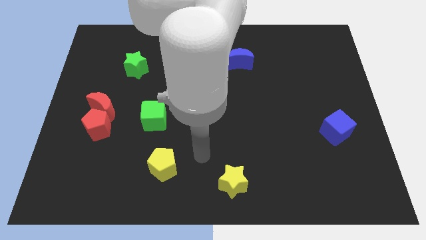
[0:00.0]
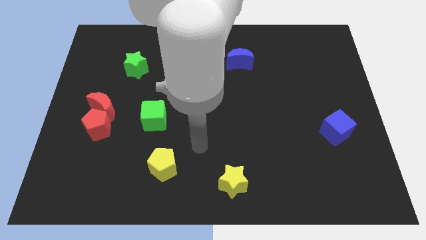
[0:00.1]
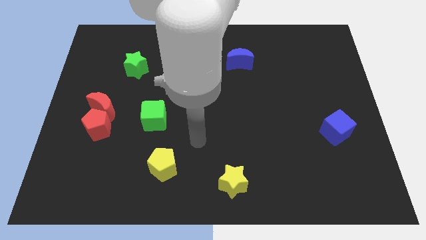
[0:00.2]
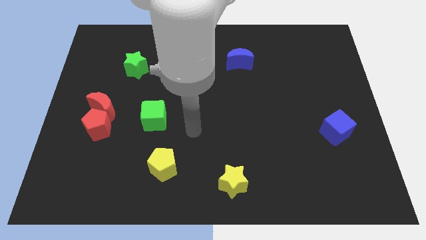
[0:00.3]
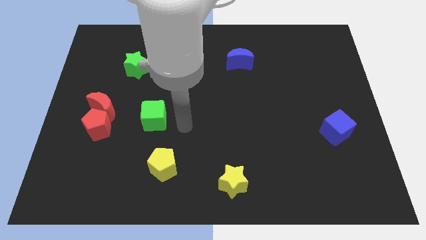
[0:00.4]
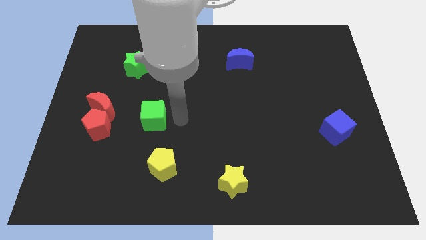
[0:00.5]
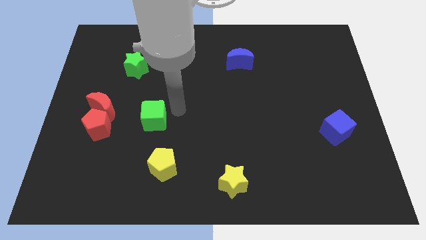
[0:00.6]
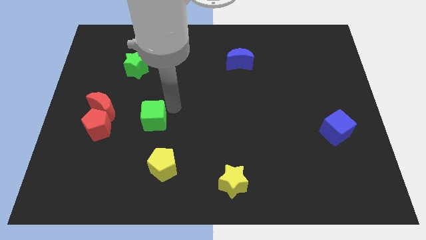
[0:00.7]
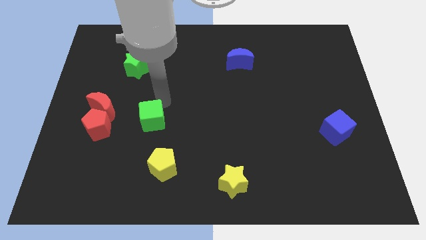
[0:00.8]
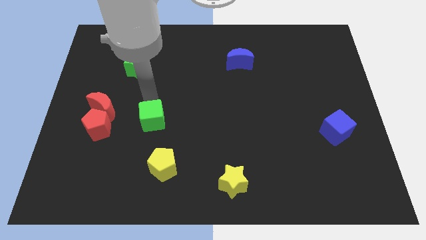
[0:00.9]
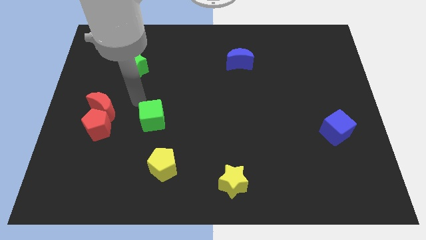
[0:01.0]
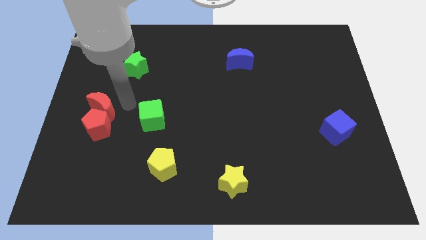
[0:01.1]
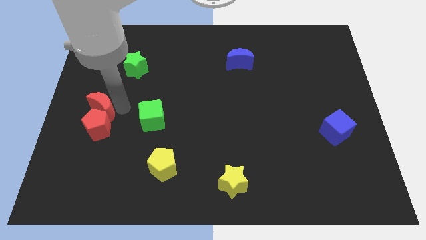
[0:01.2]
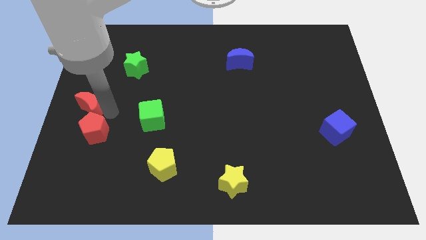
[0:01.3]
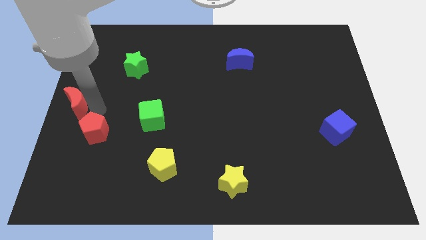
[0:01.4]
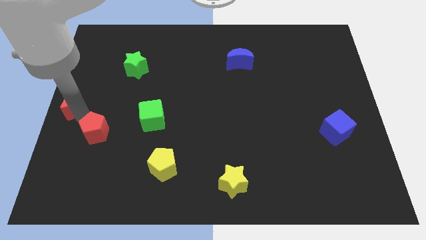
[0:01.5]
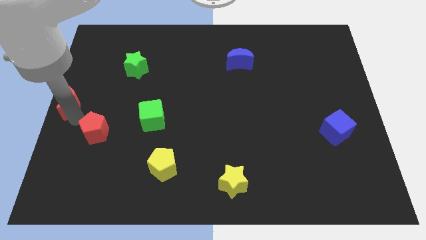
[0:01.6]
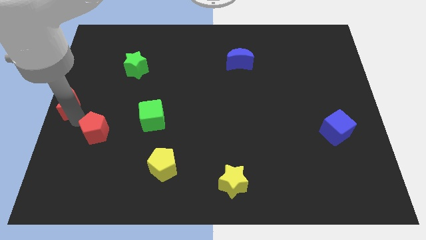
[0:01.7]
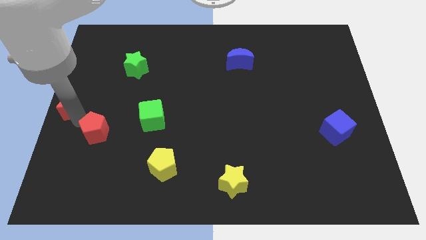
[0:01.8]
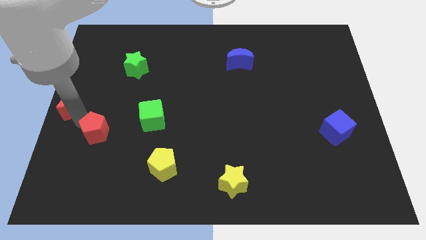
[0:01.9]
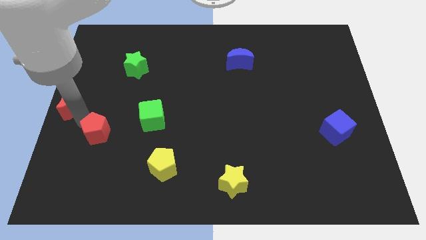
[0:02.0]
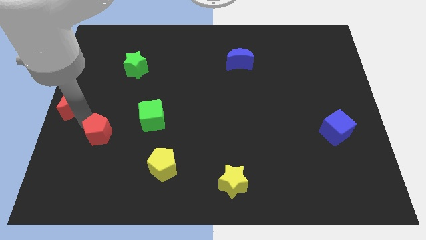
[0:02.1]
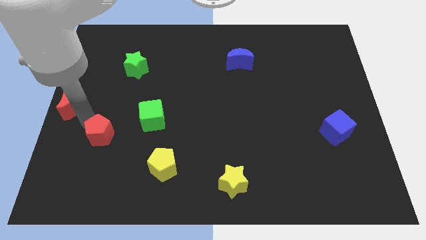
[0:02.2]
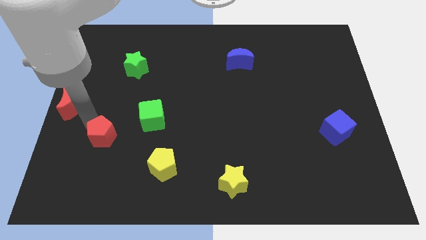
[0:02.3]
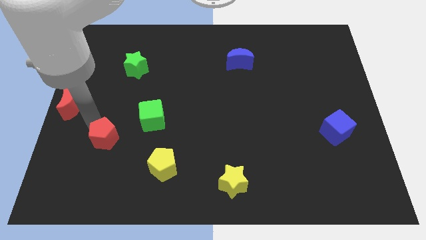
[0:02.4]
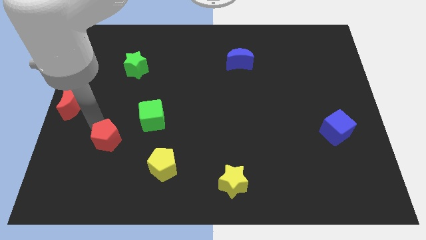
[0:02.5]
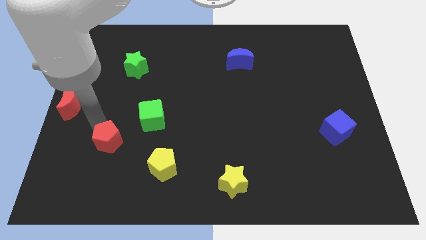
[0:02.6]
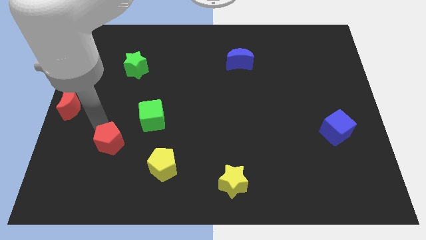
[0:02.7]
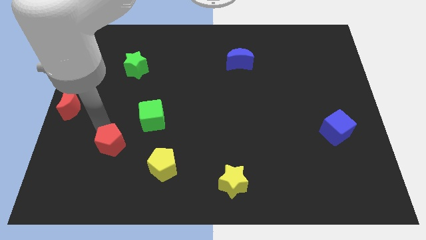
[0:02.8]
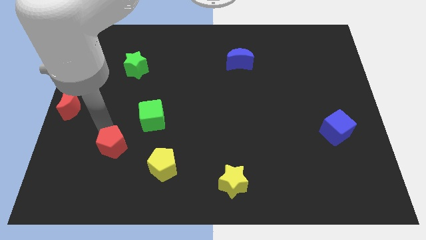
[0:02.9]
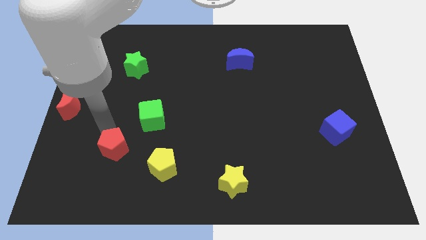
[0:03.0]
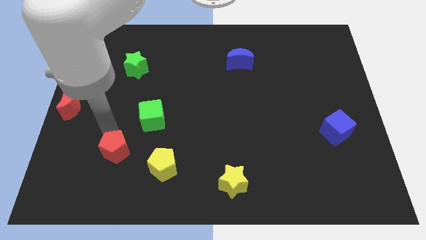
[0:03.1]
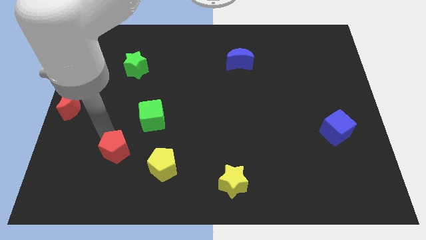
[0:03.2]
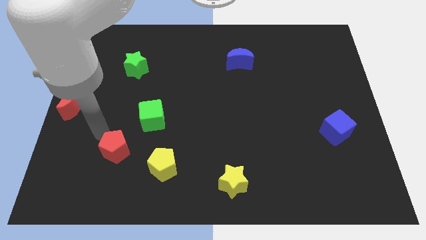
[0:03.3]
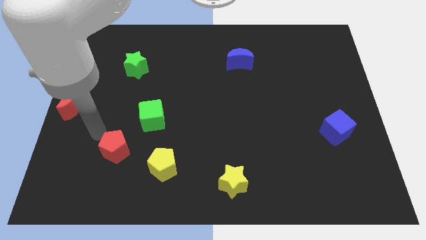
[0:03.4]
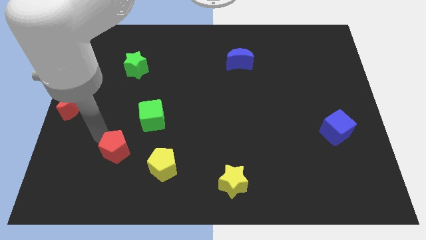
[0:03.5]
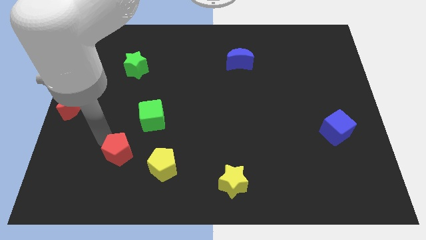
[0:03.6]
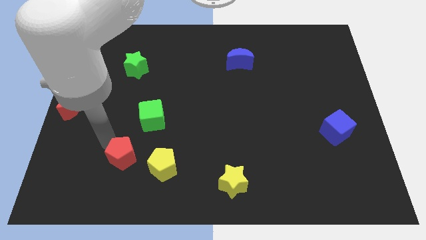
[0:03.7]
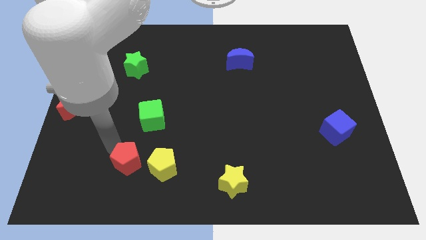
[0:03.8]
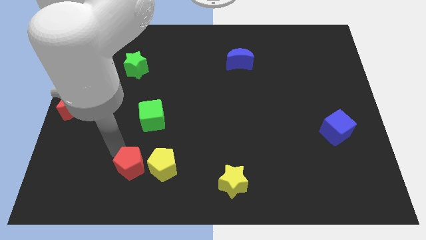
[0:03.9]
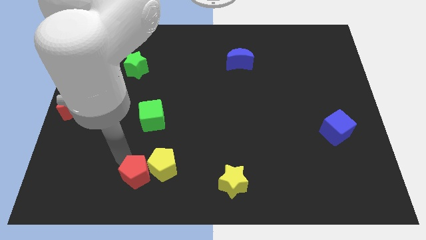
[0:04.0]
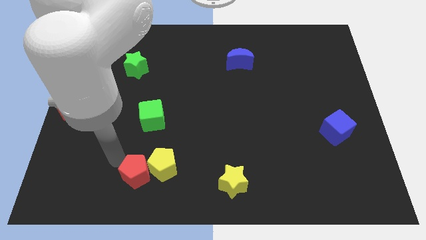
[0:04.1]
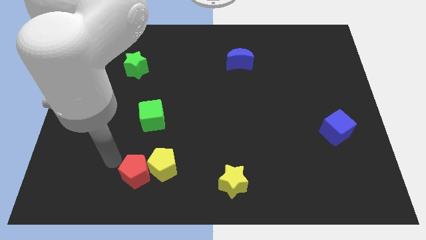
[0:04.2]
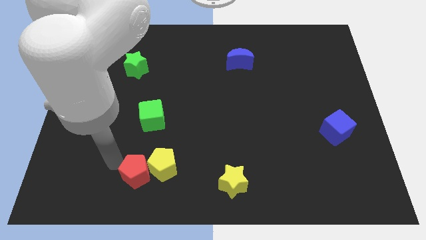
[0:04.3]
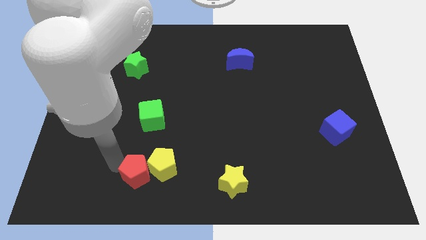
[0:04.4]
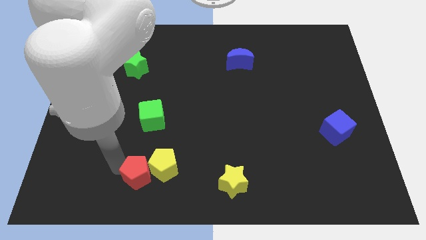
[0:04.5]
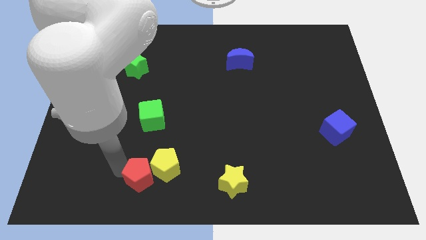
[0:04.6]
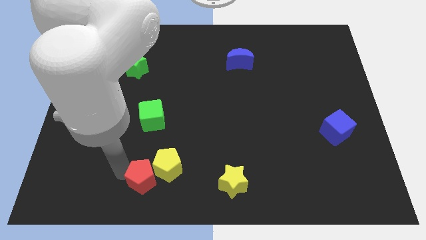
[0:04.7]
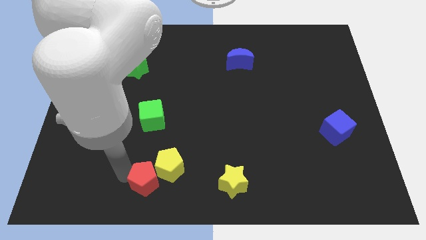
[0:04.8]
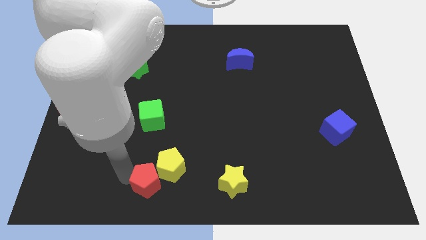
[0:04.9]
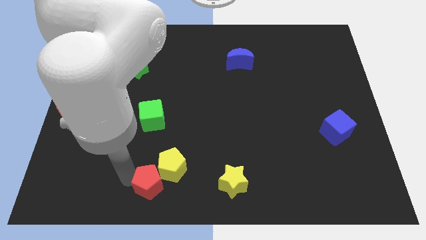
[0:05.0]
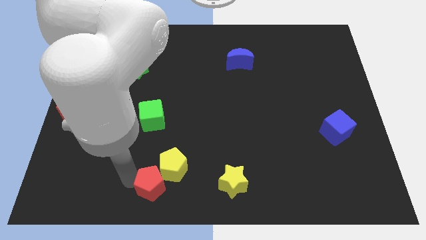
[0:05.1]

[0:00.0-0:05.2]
push the red pentagon left of the yellow star

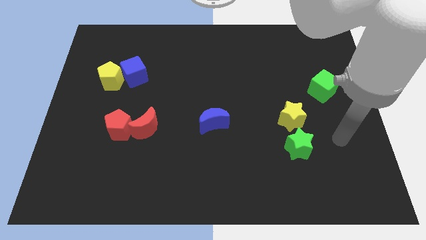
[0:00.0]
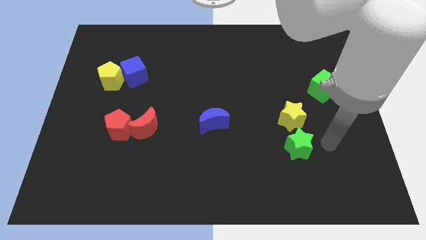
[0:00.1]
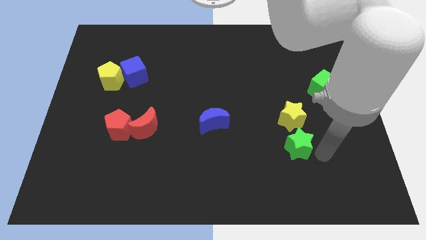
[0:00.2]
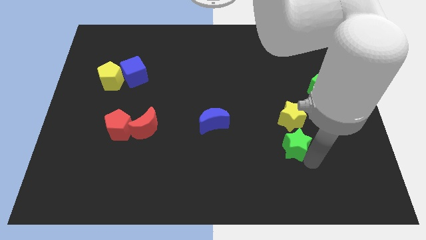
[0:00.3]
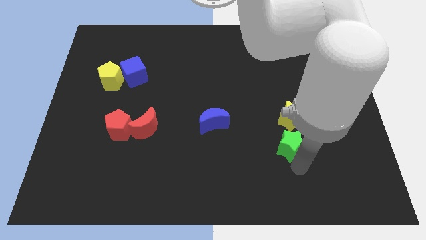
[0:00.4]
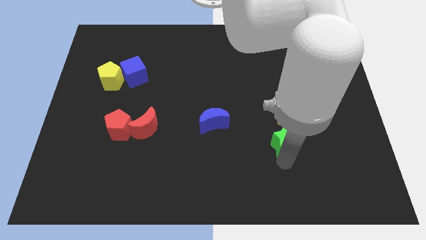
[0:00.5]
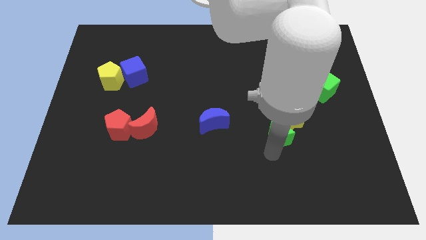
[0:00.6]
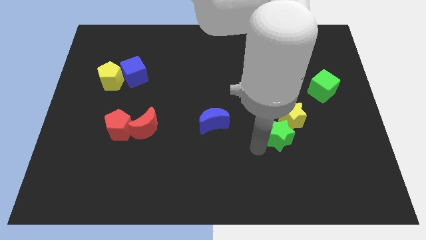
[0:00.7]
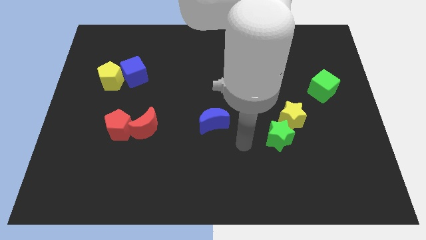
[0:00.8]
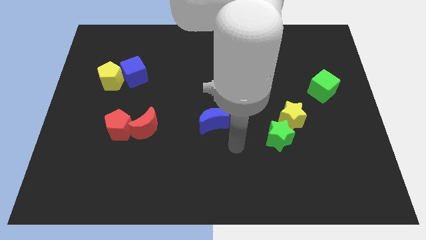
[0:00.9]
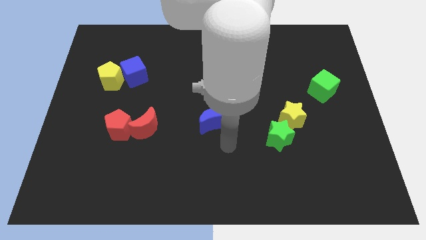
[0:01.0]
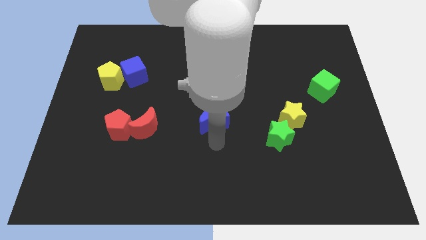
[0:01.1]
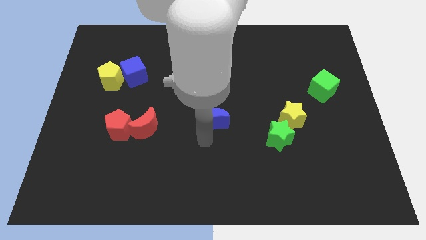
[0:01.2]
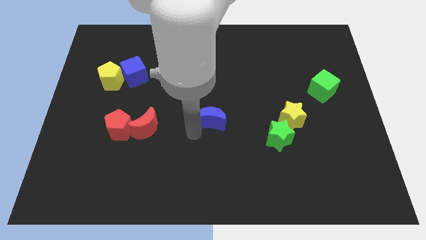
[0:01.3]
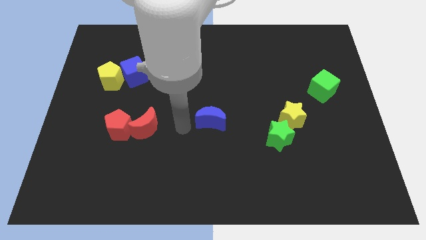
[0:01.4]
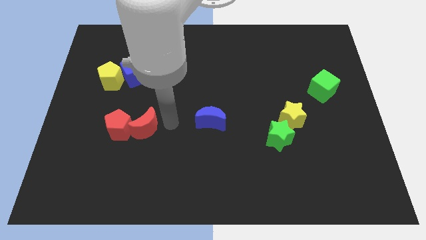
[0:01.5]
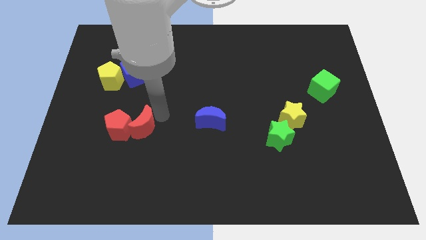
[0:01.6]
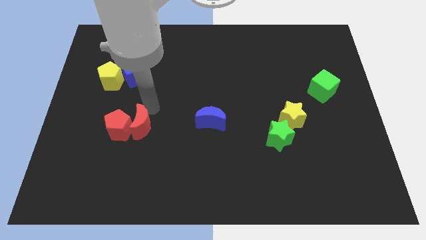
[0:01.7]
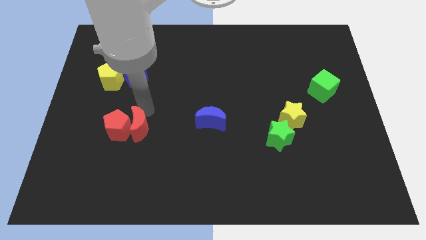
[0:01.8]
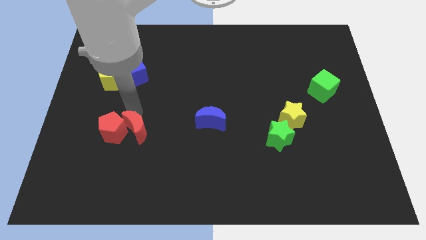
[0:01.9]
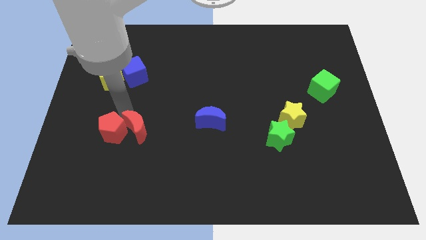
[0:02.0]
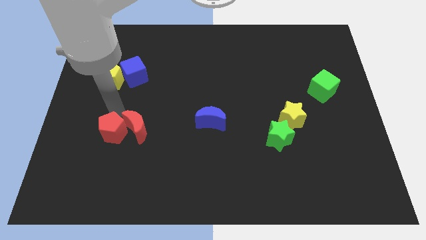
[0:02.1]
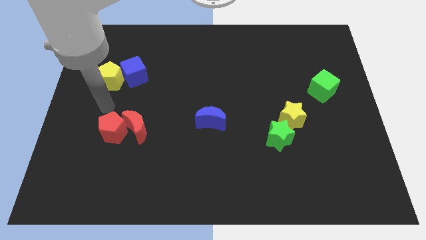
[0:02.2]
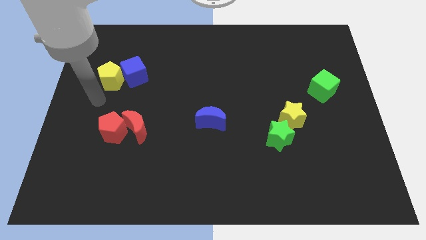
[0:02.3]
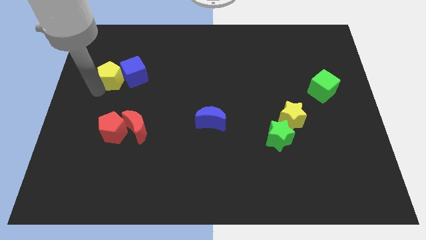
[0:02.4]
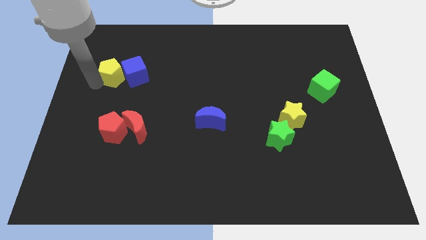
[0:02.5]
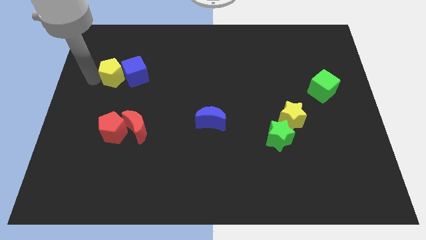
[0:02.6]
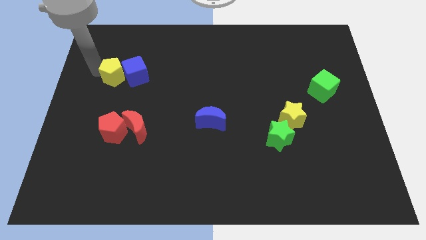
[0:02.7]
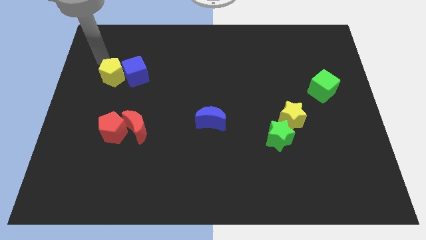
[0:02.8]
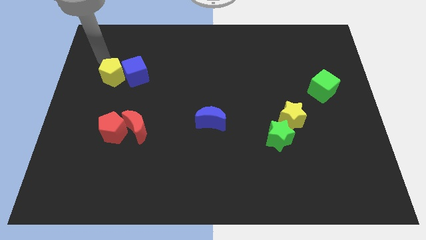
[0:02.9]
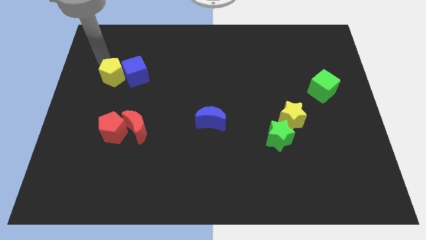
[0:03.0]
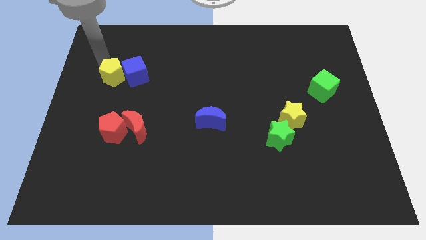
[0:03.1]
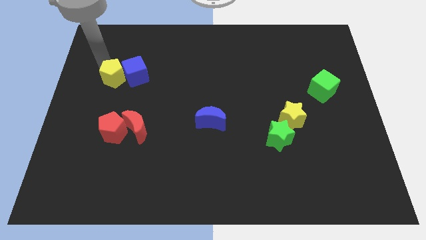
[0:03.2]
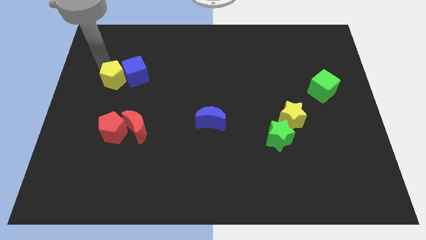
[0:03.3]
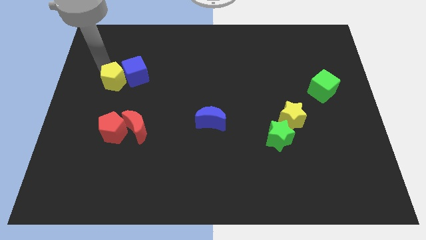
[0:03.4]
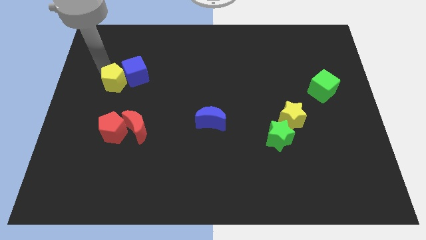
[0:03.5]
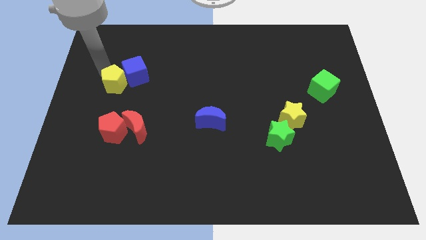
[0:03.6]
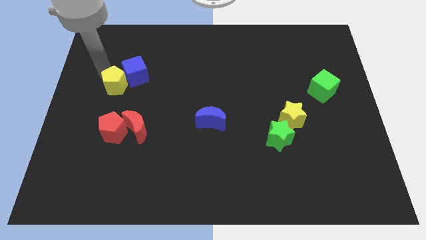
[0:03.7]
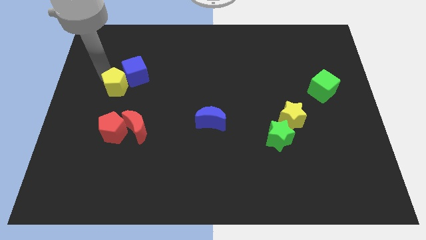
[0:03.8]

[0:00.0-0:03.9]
push the yellow pentagon below the blue cube
